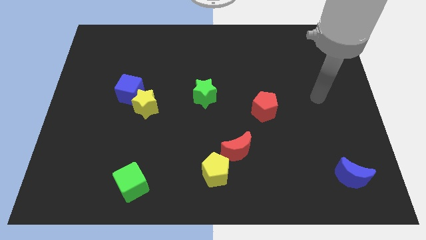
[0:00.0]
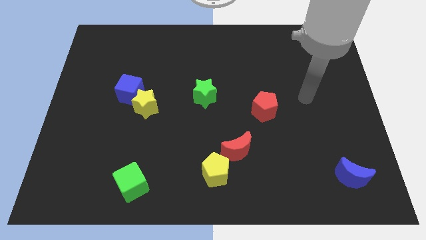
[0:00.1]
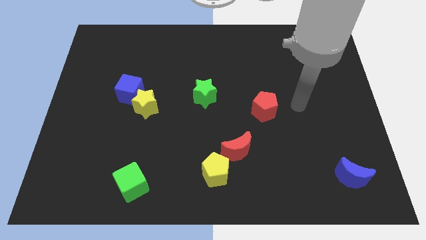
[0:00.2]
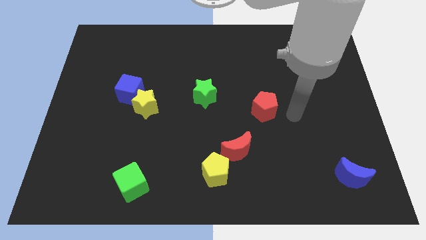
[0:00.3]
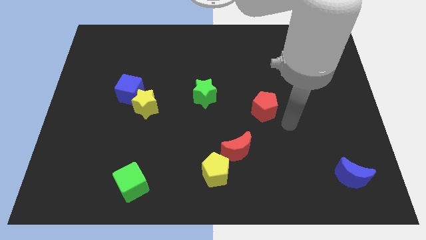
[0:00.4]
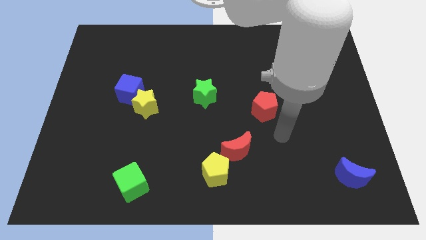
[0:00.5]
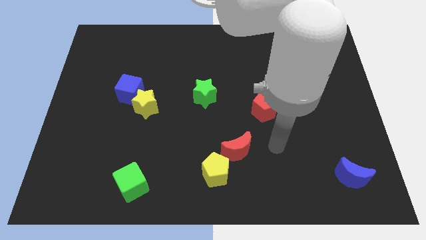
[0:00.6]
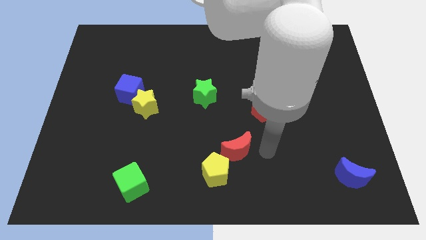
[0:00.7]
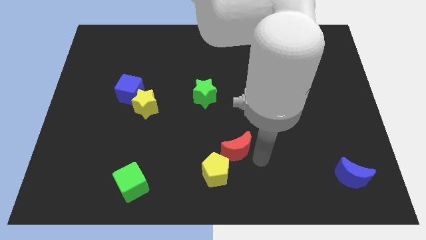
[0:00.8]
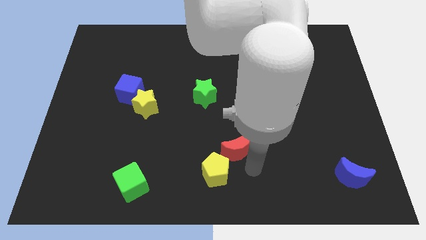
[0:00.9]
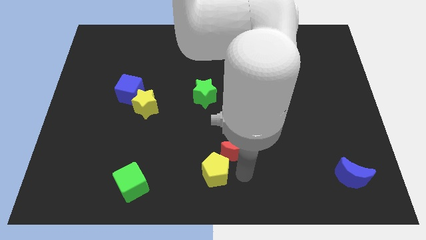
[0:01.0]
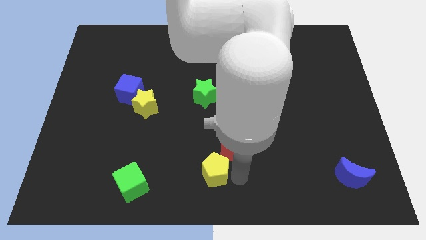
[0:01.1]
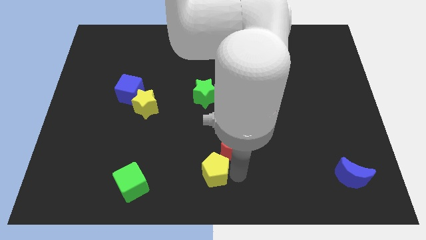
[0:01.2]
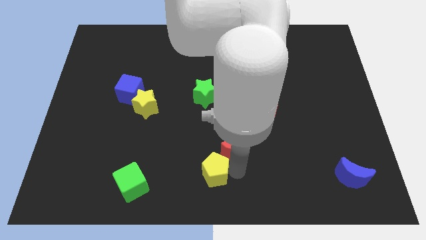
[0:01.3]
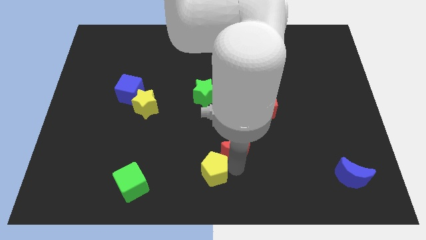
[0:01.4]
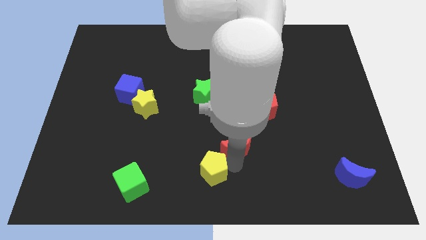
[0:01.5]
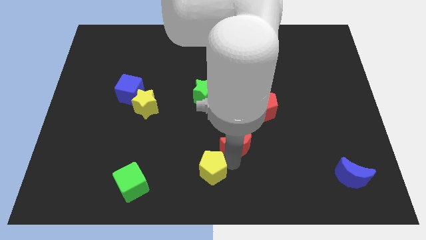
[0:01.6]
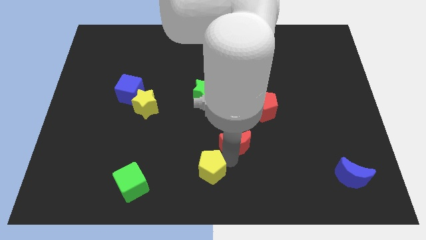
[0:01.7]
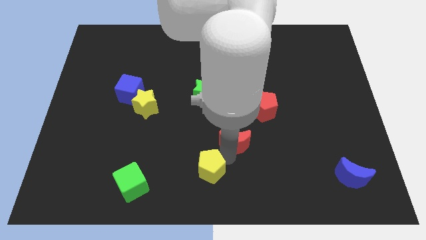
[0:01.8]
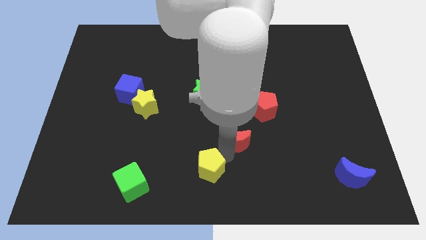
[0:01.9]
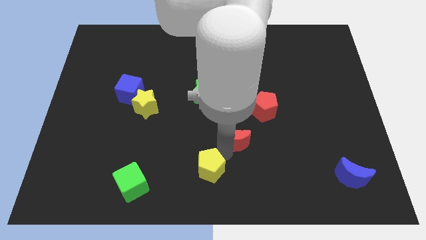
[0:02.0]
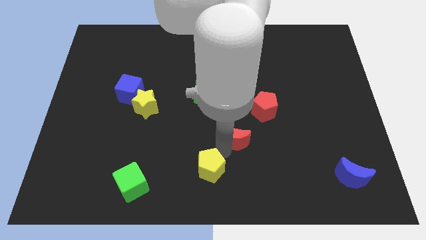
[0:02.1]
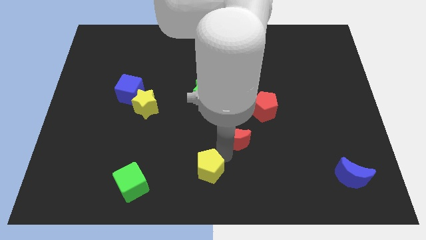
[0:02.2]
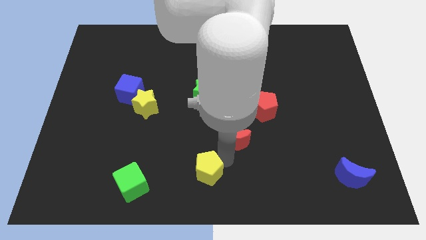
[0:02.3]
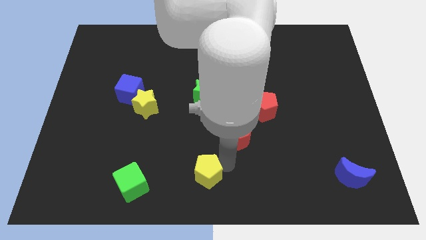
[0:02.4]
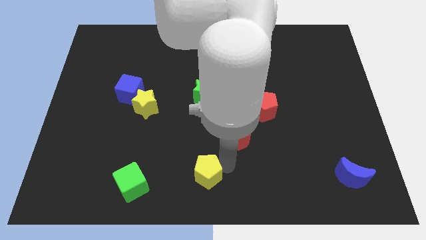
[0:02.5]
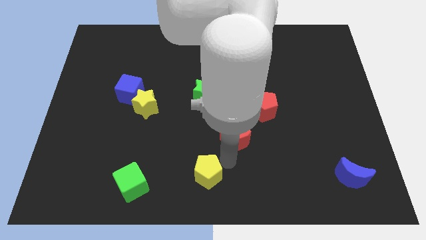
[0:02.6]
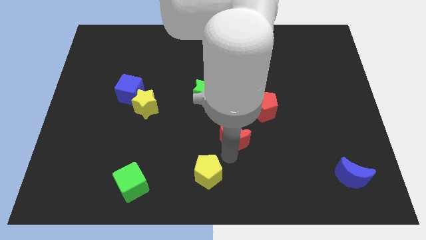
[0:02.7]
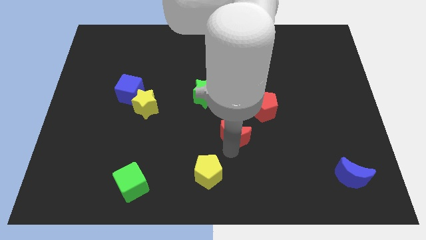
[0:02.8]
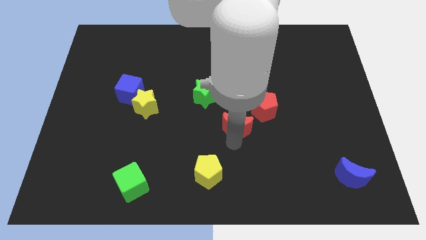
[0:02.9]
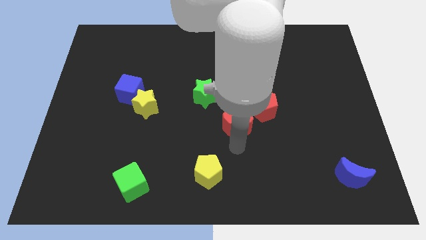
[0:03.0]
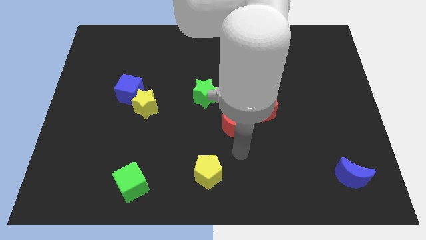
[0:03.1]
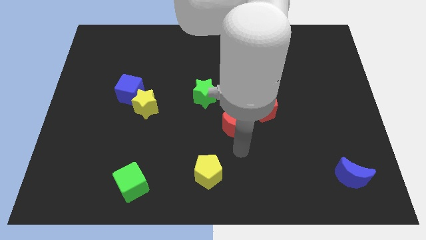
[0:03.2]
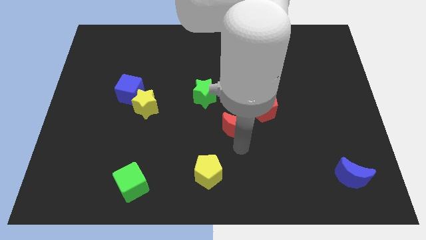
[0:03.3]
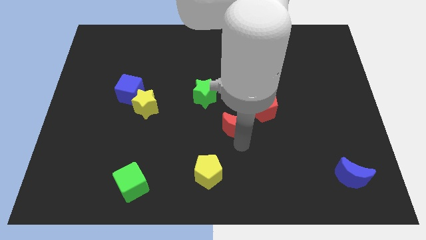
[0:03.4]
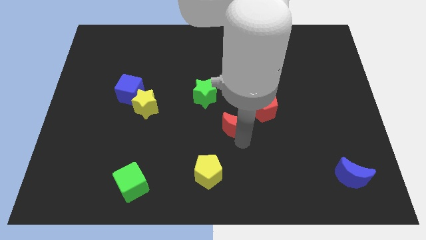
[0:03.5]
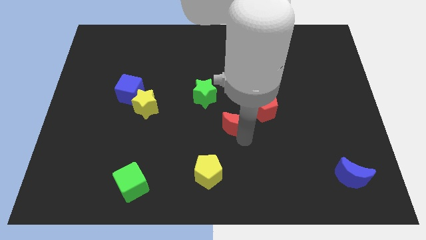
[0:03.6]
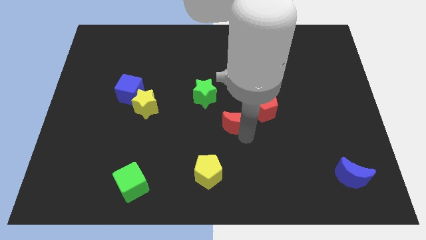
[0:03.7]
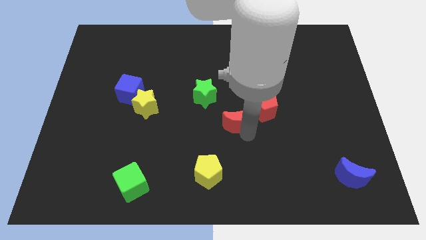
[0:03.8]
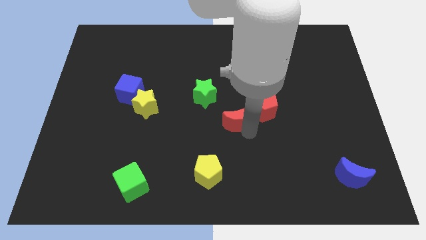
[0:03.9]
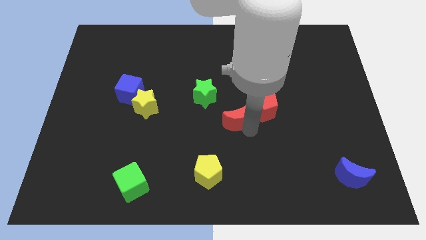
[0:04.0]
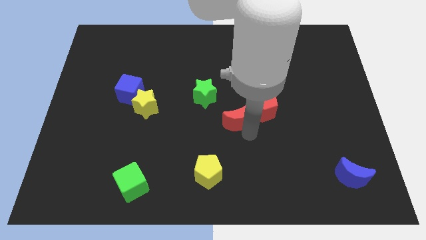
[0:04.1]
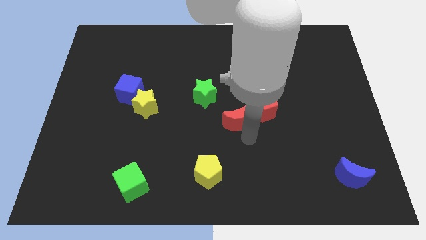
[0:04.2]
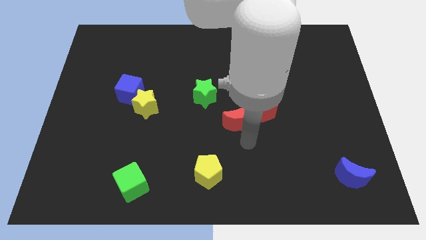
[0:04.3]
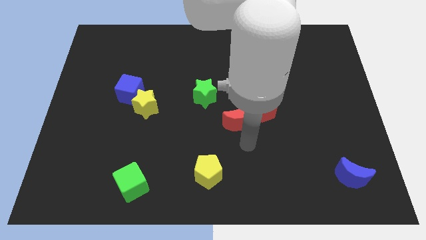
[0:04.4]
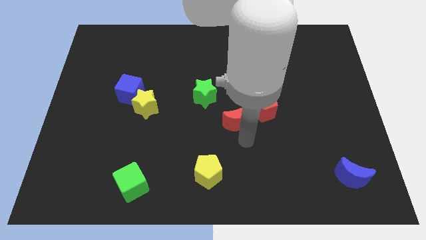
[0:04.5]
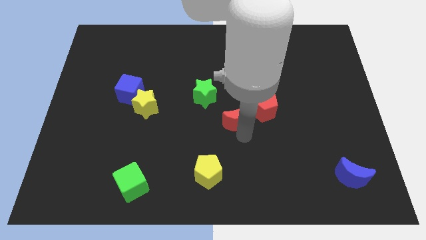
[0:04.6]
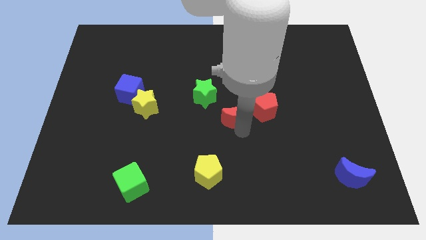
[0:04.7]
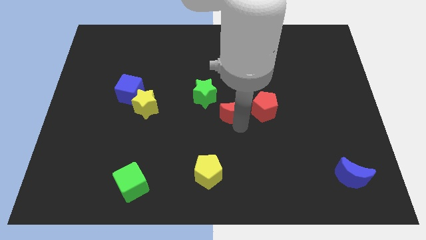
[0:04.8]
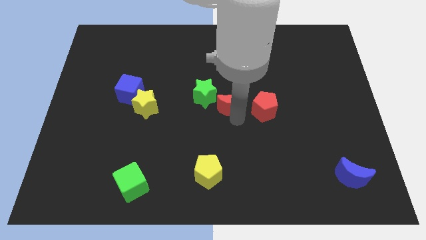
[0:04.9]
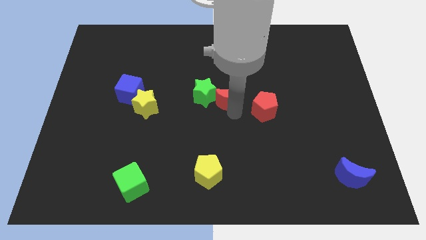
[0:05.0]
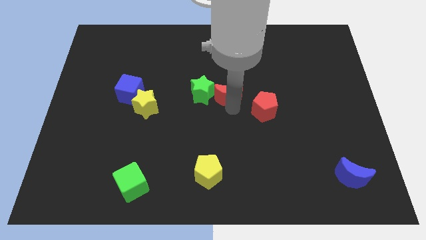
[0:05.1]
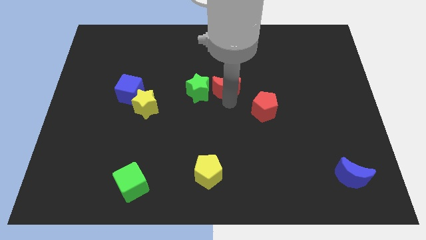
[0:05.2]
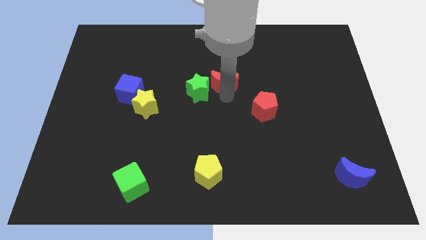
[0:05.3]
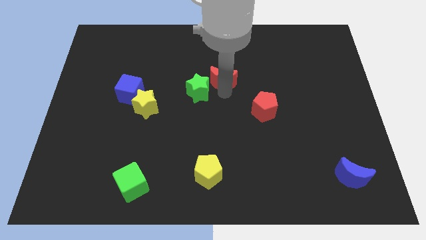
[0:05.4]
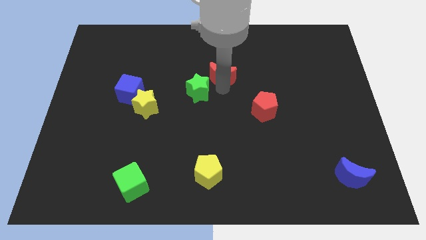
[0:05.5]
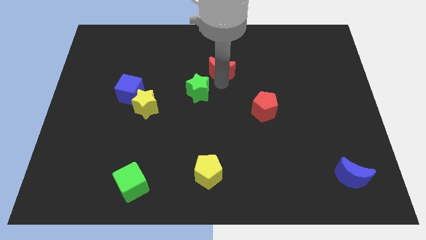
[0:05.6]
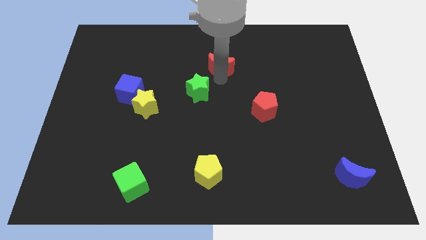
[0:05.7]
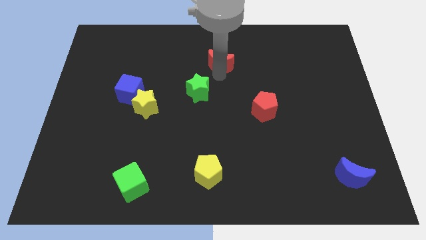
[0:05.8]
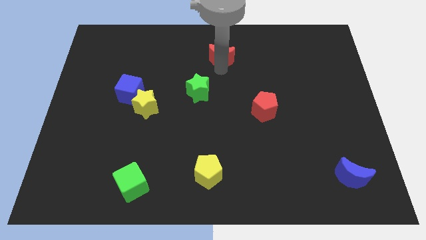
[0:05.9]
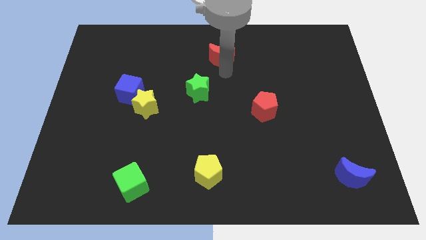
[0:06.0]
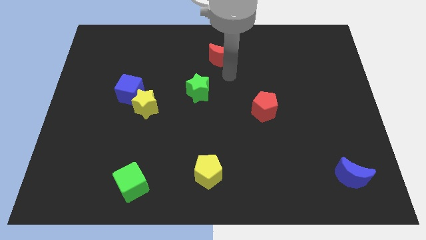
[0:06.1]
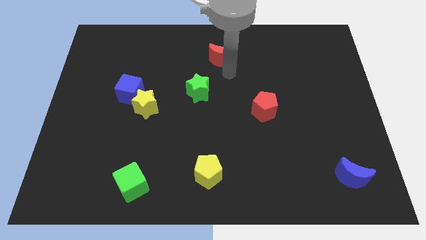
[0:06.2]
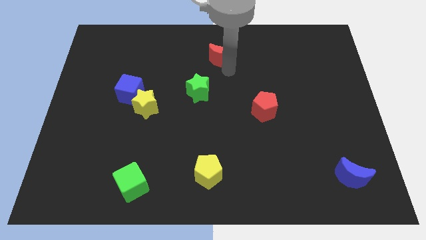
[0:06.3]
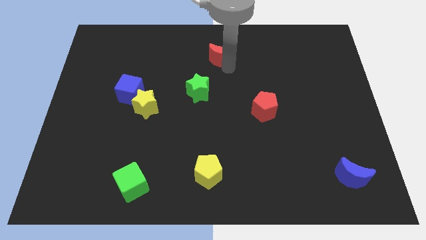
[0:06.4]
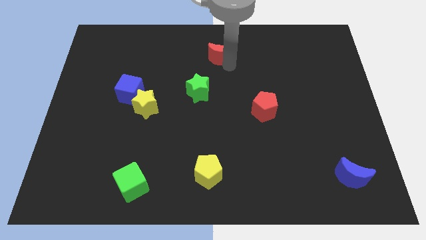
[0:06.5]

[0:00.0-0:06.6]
push the red moon to the top side

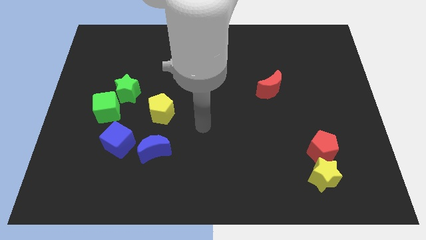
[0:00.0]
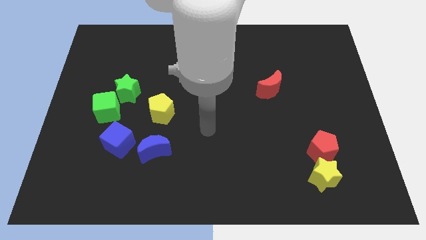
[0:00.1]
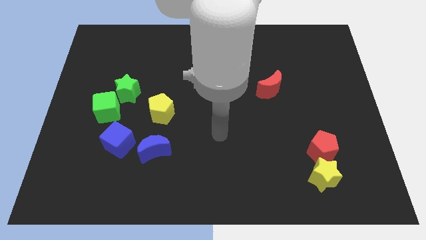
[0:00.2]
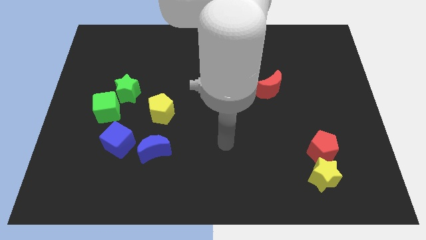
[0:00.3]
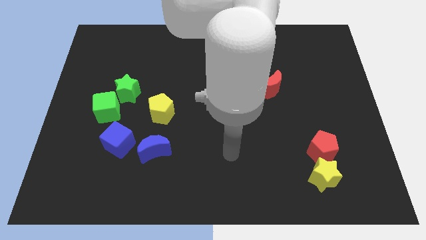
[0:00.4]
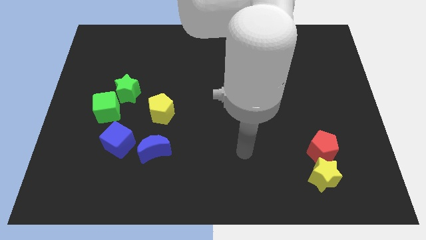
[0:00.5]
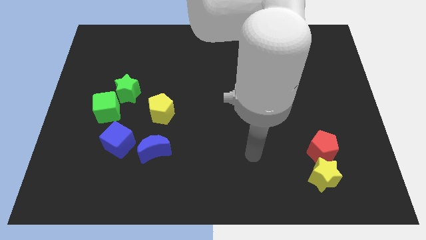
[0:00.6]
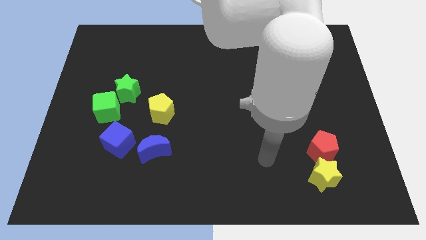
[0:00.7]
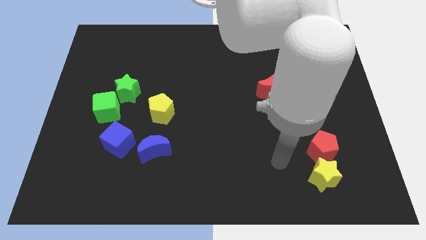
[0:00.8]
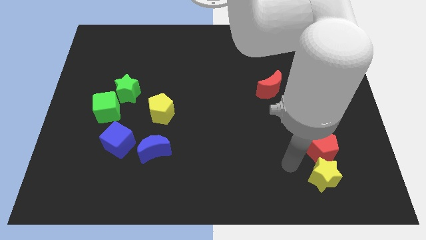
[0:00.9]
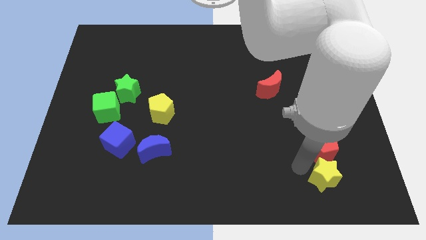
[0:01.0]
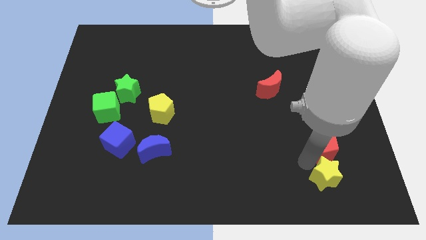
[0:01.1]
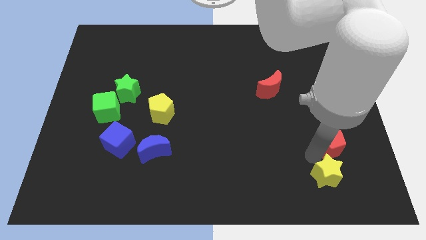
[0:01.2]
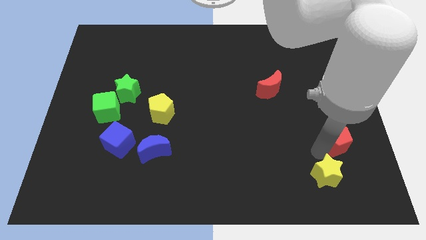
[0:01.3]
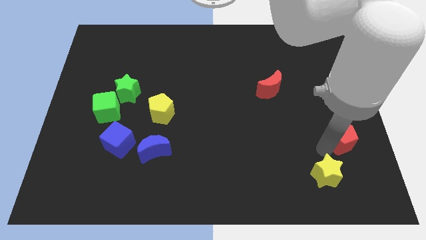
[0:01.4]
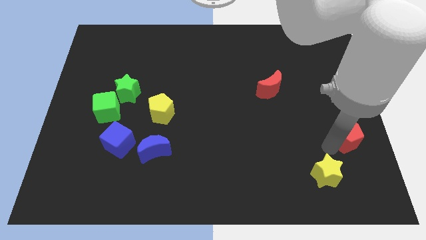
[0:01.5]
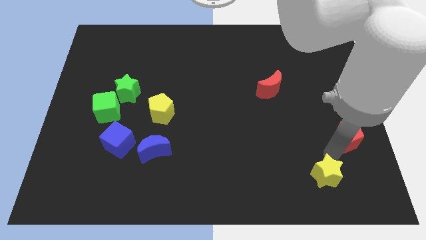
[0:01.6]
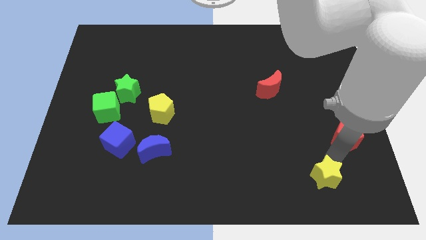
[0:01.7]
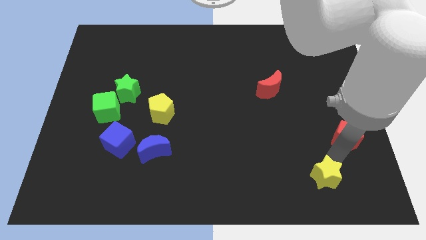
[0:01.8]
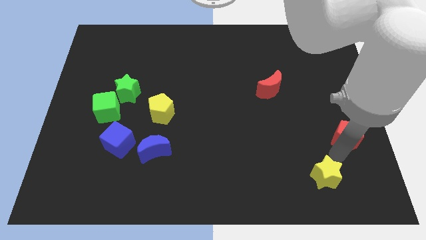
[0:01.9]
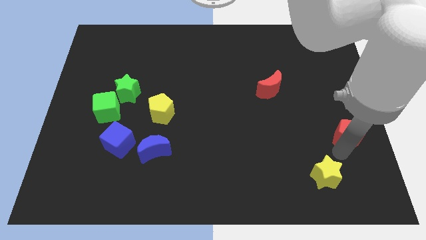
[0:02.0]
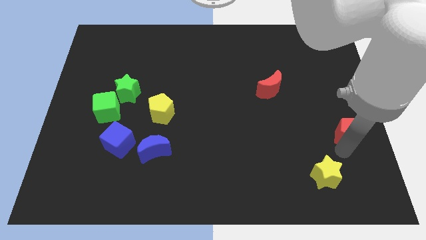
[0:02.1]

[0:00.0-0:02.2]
slide the red pentagon to the right side
